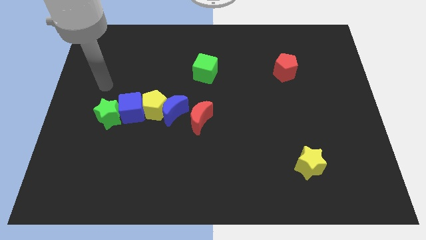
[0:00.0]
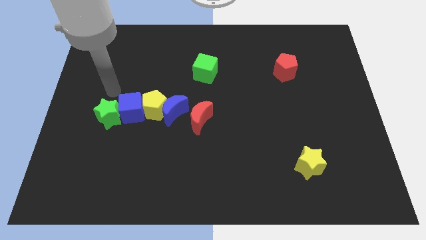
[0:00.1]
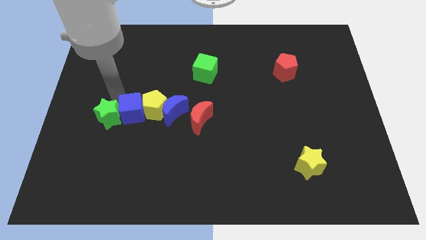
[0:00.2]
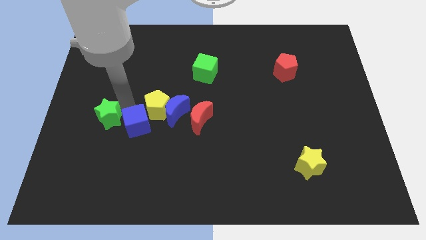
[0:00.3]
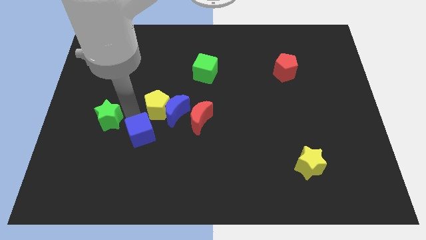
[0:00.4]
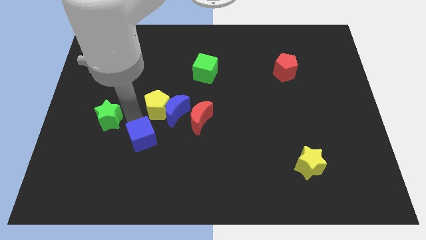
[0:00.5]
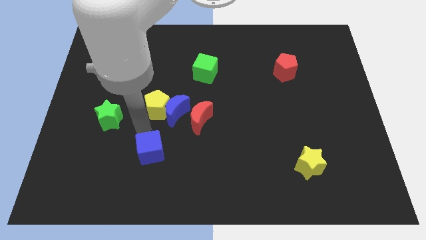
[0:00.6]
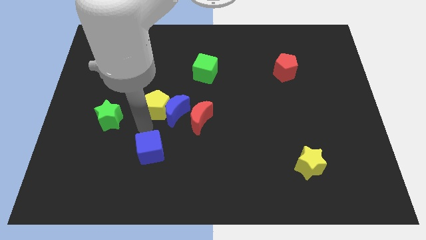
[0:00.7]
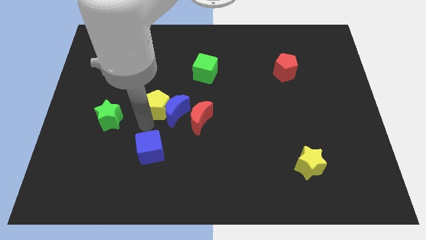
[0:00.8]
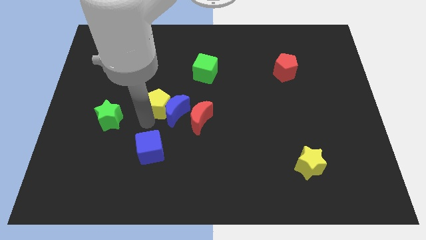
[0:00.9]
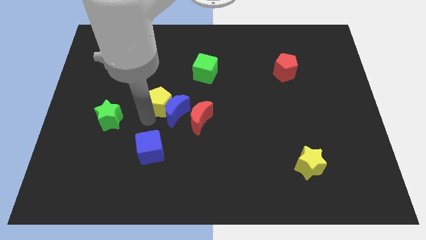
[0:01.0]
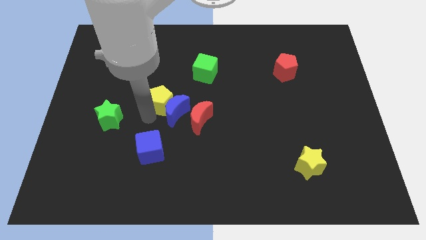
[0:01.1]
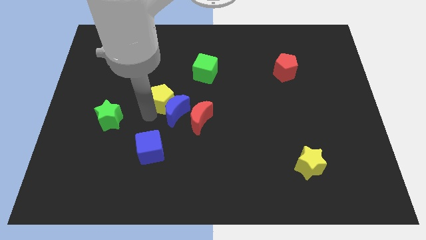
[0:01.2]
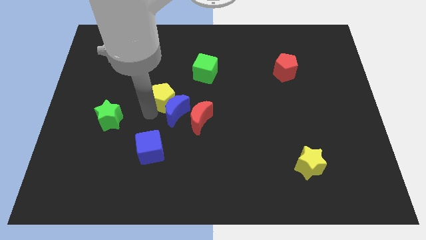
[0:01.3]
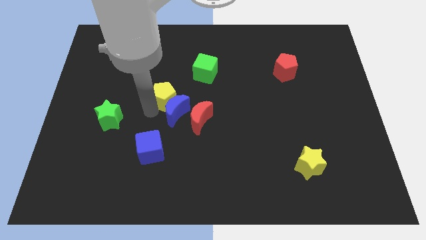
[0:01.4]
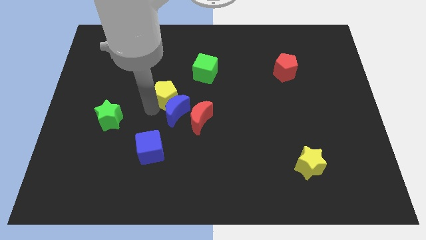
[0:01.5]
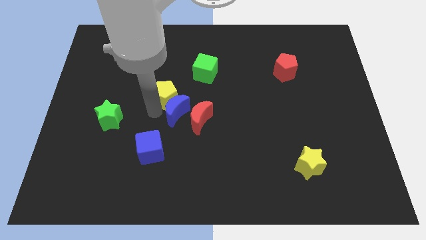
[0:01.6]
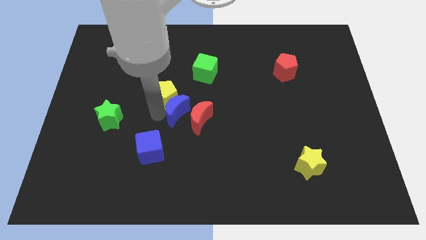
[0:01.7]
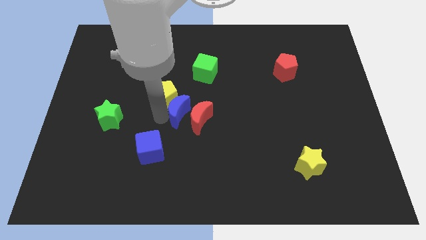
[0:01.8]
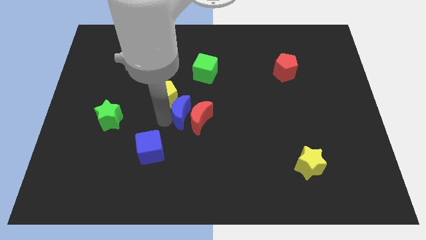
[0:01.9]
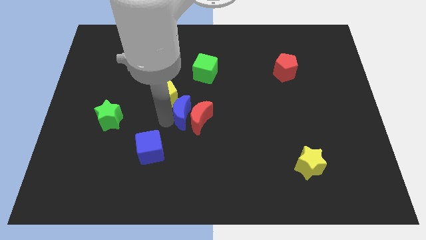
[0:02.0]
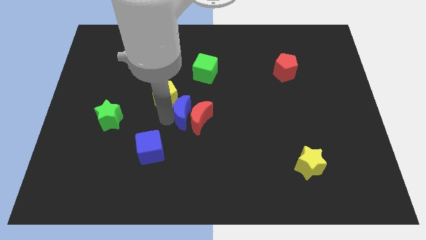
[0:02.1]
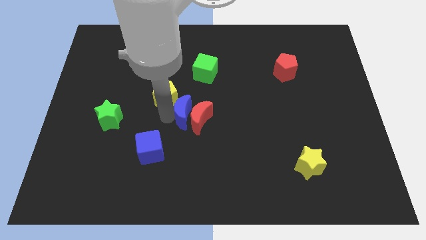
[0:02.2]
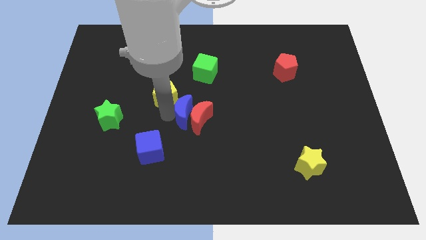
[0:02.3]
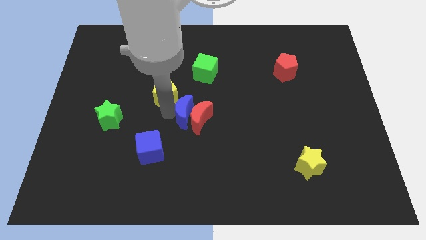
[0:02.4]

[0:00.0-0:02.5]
pull the yellow pentagon apart from the blue moon and blue cube

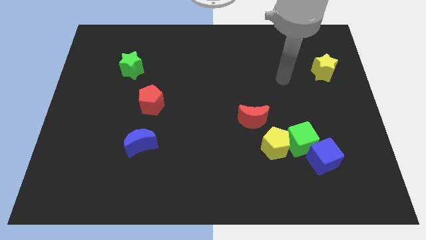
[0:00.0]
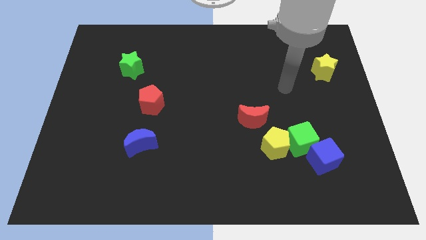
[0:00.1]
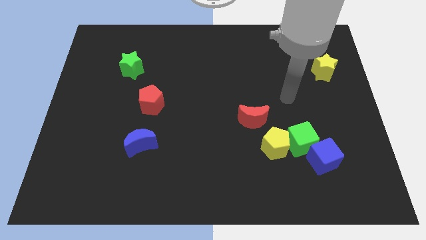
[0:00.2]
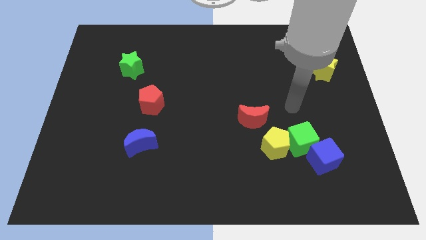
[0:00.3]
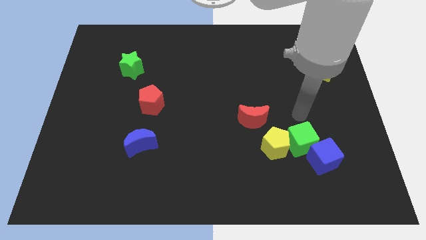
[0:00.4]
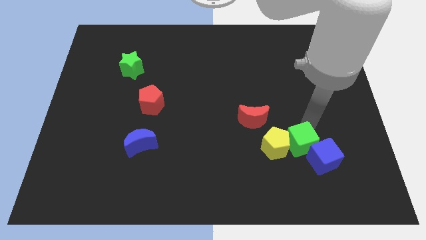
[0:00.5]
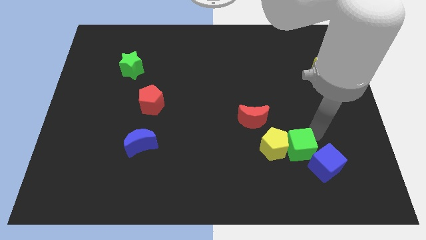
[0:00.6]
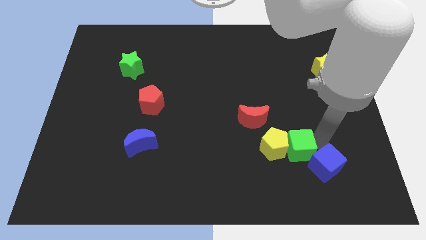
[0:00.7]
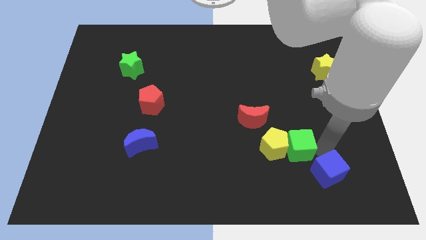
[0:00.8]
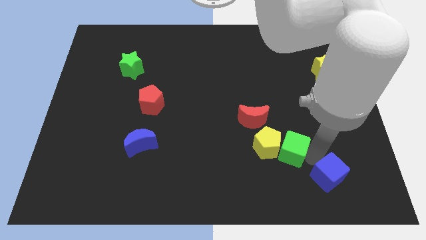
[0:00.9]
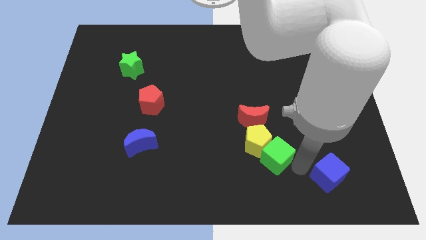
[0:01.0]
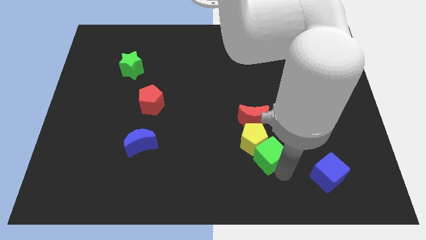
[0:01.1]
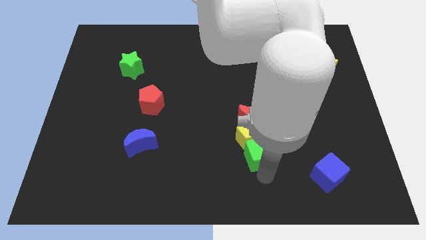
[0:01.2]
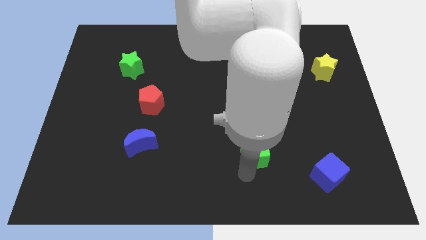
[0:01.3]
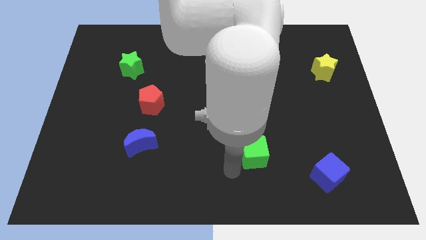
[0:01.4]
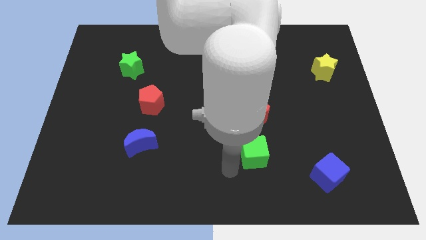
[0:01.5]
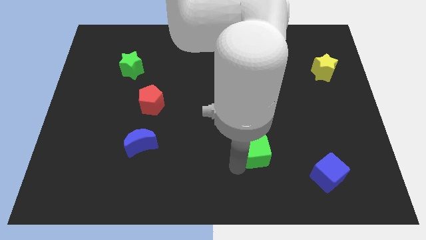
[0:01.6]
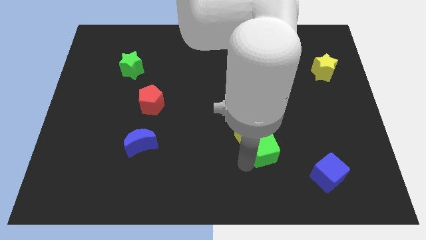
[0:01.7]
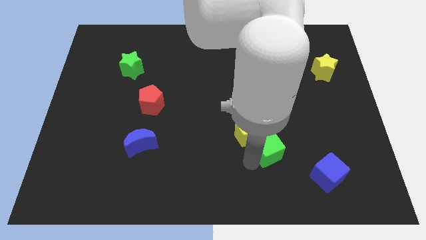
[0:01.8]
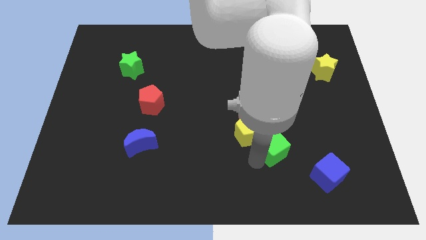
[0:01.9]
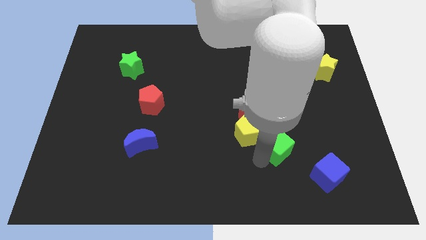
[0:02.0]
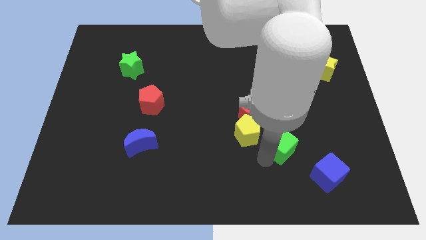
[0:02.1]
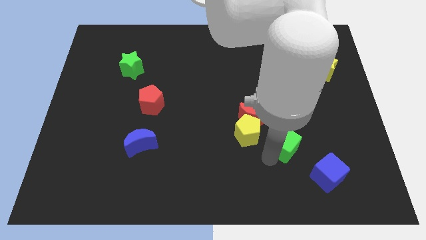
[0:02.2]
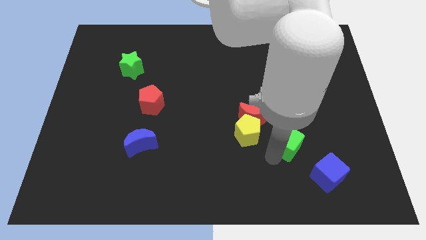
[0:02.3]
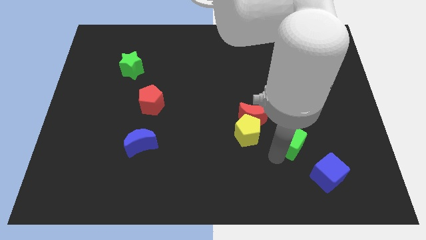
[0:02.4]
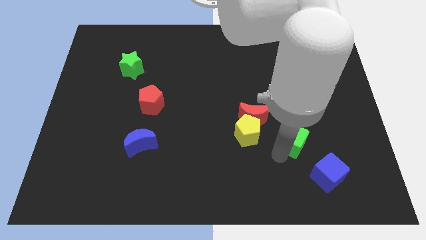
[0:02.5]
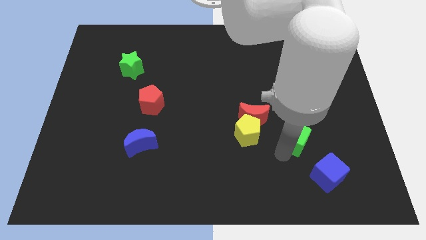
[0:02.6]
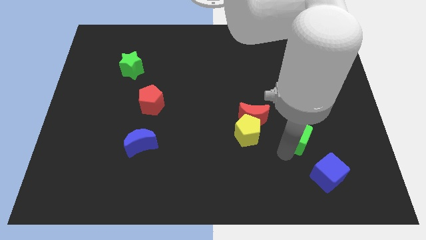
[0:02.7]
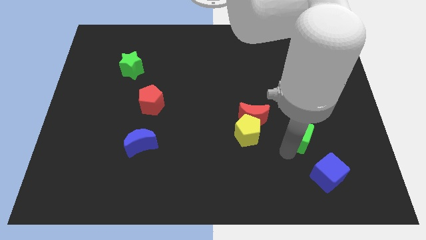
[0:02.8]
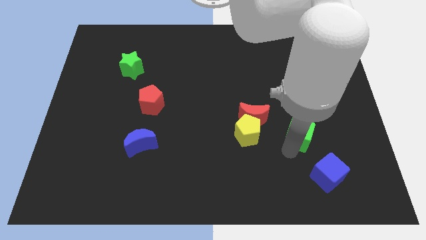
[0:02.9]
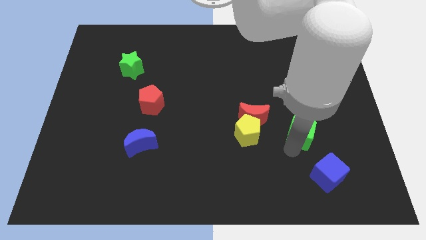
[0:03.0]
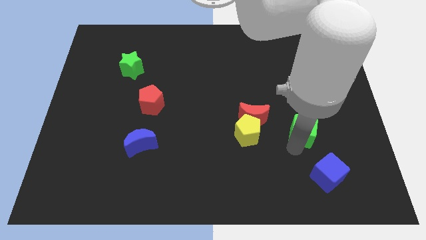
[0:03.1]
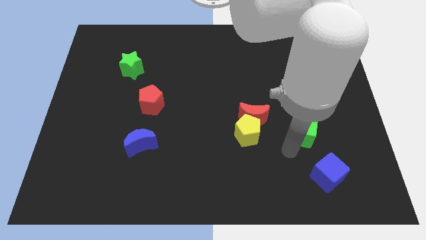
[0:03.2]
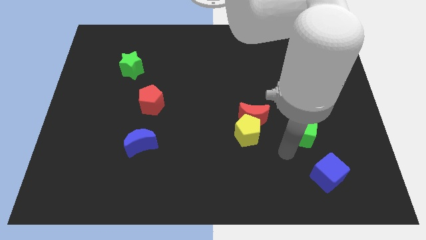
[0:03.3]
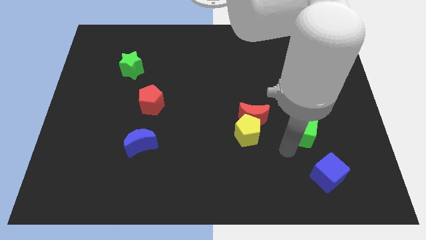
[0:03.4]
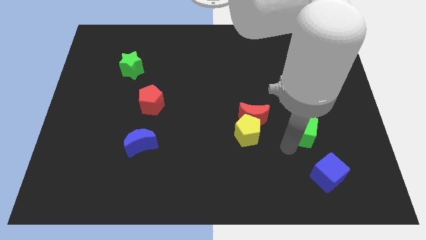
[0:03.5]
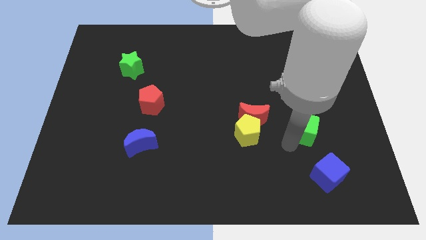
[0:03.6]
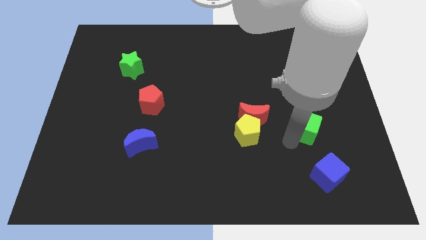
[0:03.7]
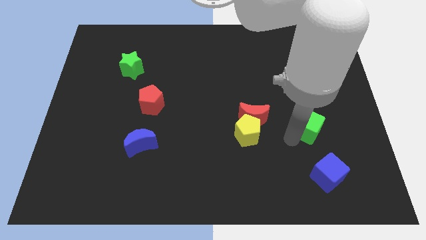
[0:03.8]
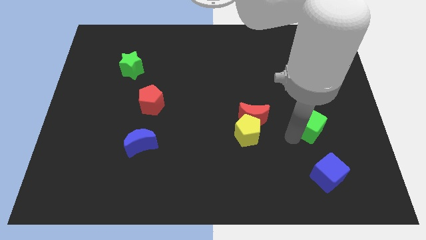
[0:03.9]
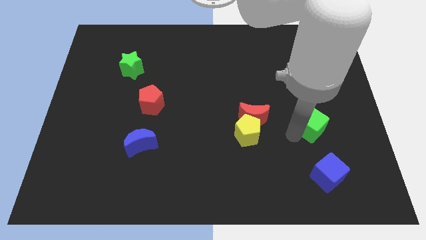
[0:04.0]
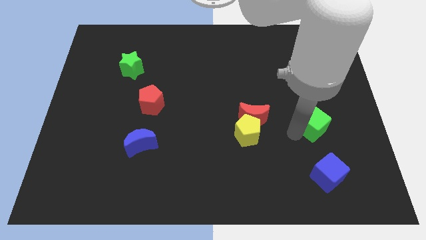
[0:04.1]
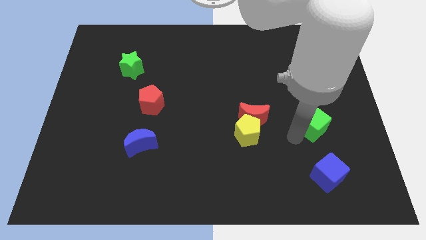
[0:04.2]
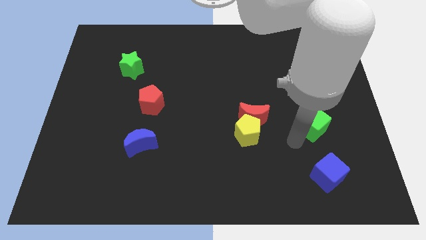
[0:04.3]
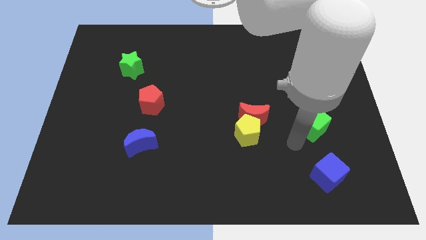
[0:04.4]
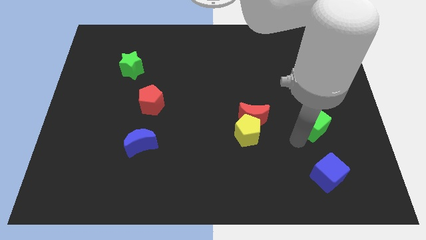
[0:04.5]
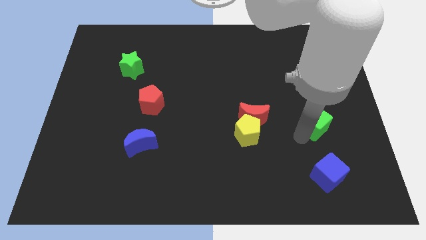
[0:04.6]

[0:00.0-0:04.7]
move the green cube away from the yellow pentagon and blue cube

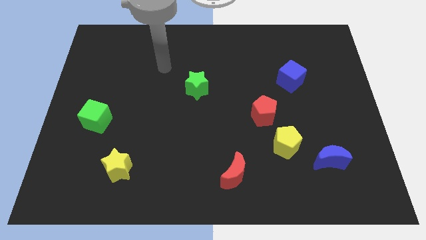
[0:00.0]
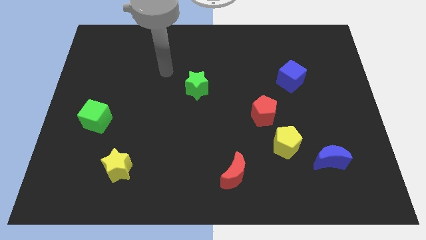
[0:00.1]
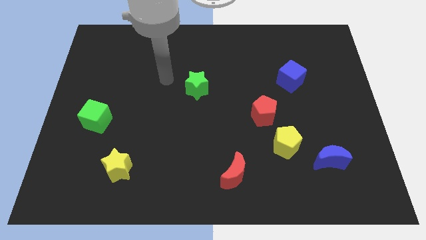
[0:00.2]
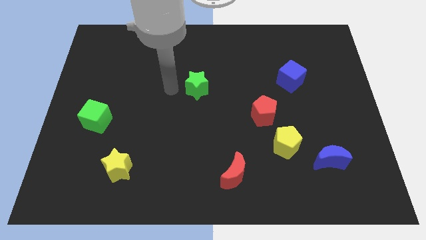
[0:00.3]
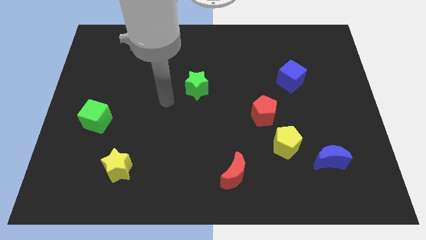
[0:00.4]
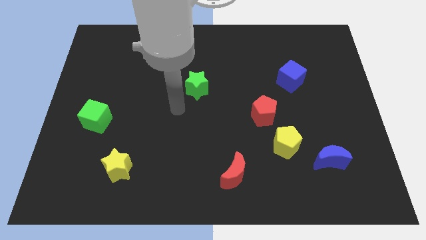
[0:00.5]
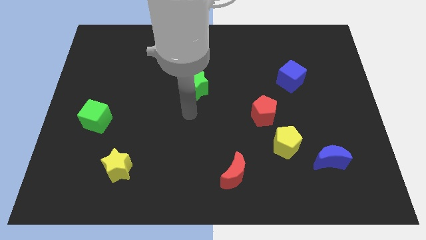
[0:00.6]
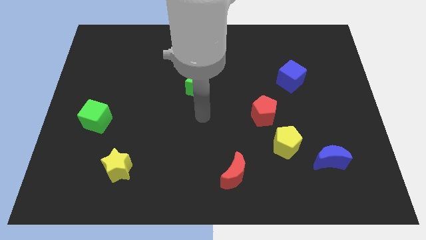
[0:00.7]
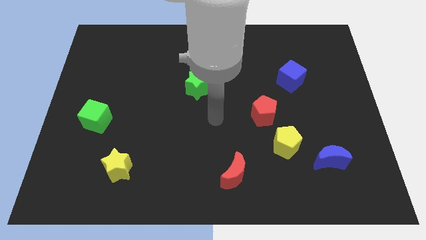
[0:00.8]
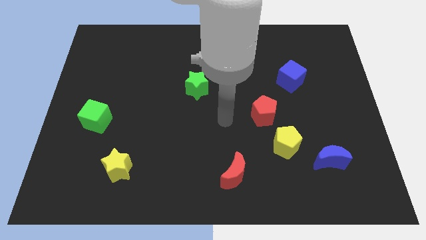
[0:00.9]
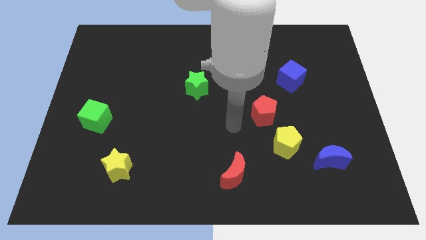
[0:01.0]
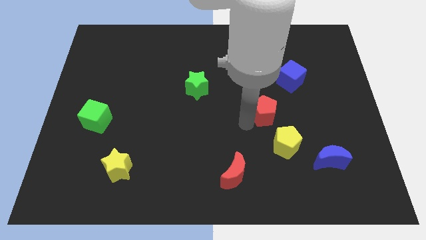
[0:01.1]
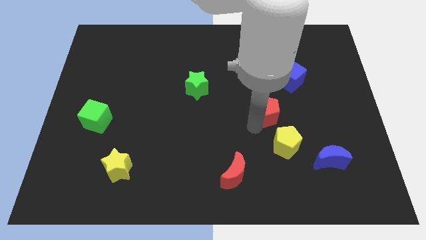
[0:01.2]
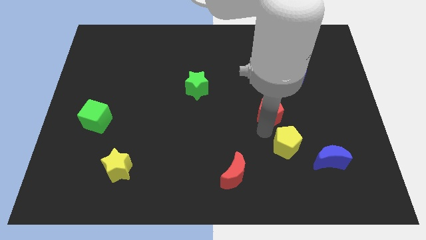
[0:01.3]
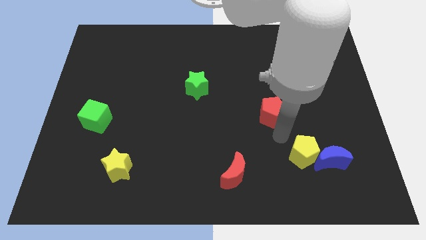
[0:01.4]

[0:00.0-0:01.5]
separate the red pentagon from the yellow pentagon

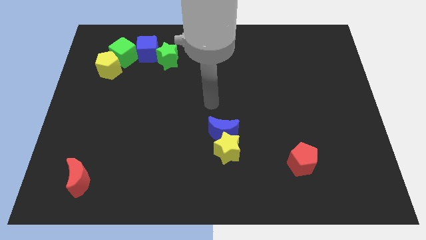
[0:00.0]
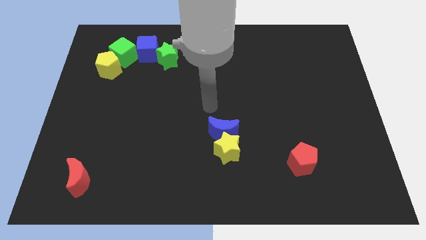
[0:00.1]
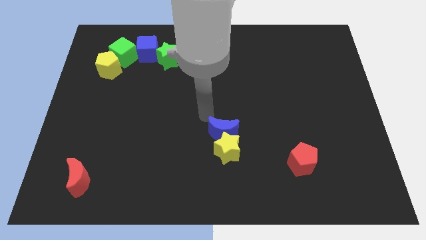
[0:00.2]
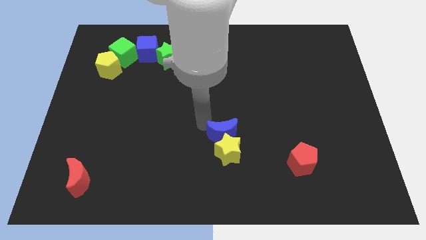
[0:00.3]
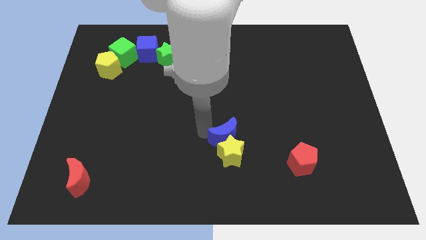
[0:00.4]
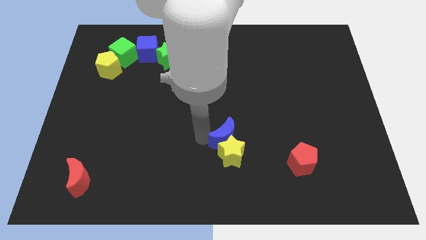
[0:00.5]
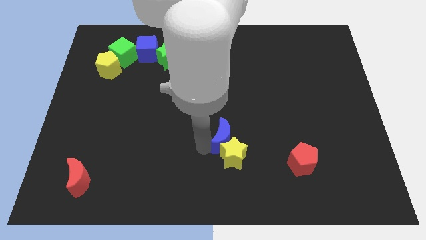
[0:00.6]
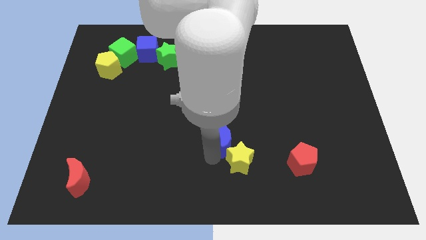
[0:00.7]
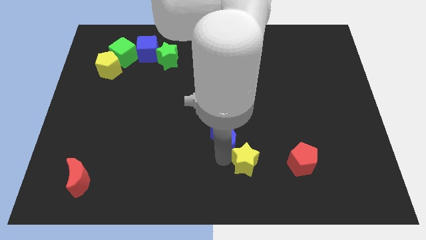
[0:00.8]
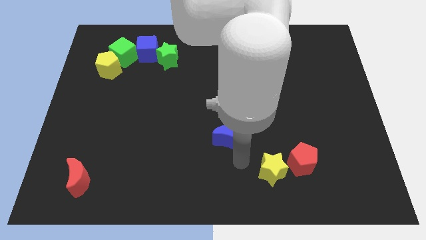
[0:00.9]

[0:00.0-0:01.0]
pull the blue moon apart from the yellow star
